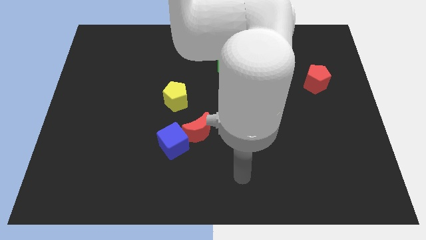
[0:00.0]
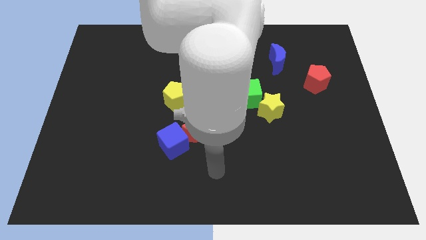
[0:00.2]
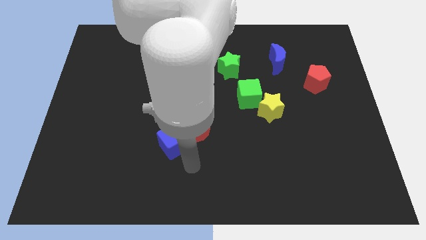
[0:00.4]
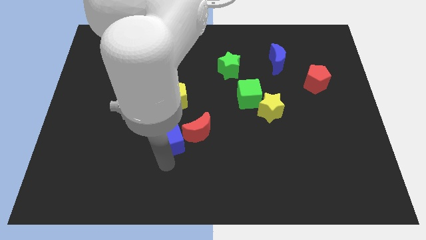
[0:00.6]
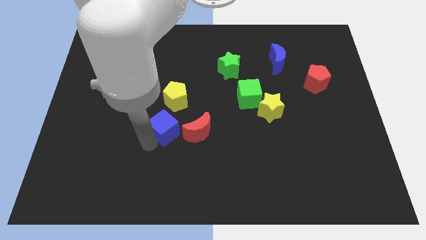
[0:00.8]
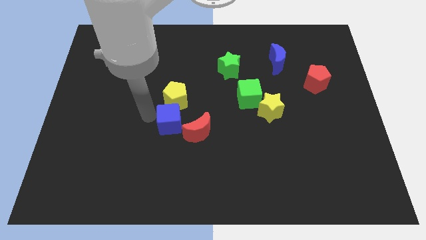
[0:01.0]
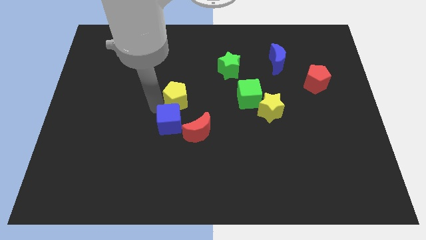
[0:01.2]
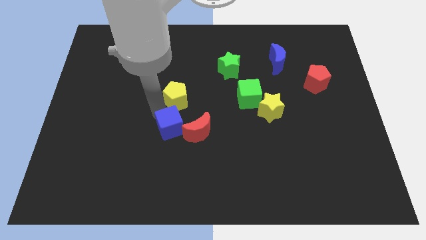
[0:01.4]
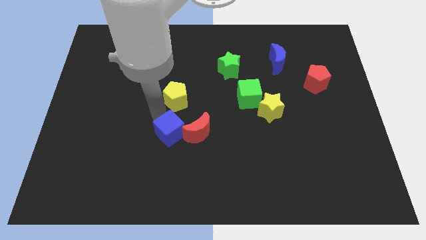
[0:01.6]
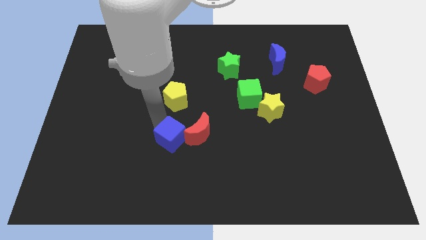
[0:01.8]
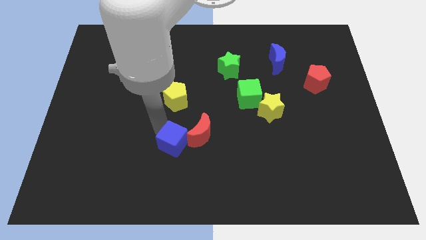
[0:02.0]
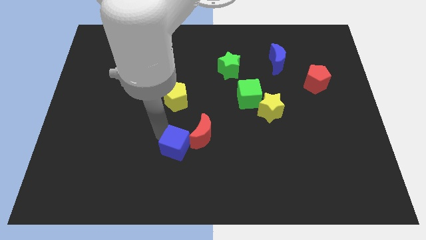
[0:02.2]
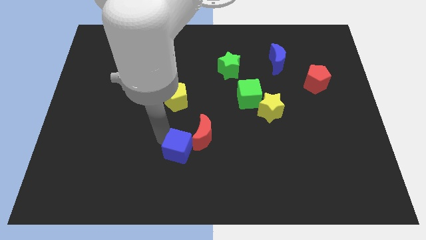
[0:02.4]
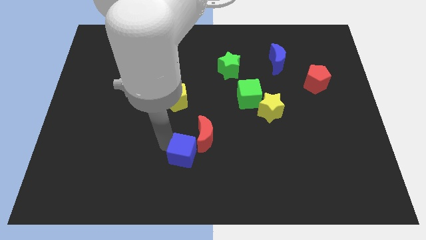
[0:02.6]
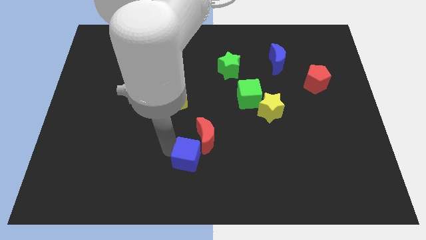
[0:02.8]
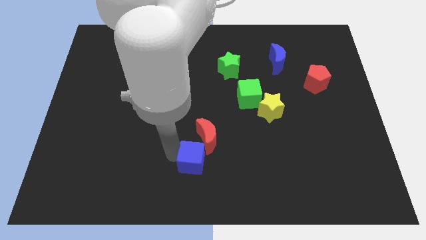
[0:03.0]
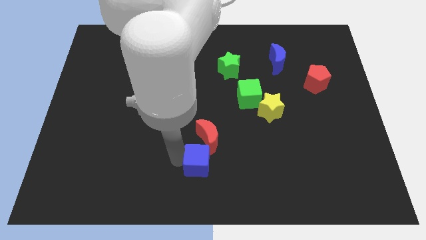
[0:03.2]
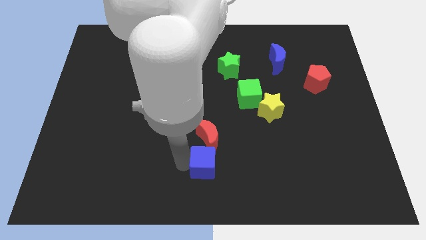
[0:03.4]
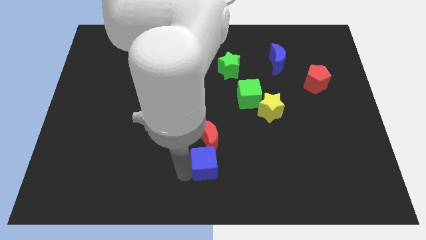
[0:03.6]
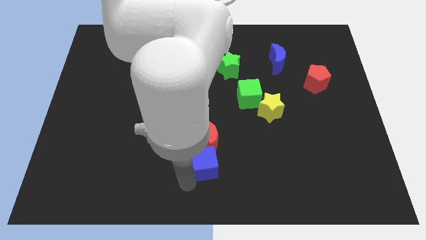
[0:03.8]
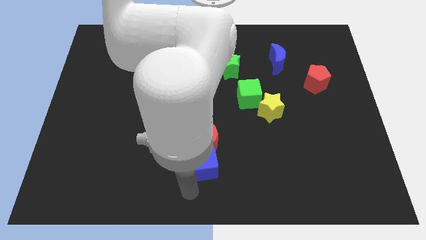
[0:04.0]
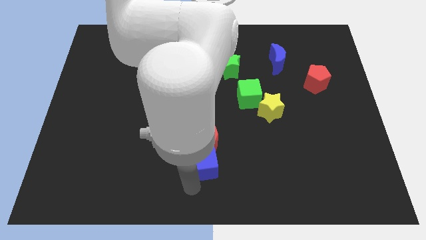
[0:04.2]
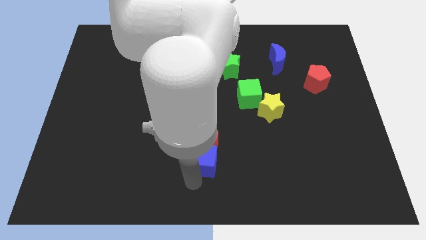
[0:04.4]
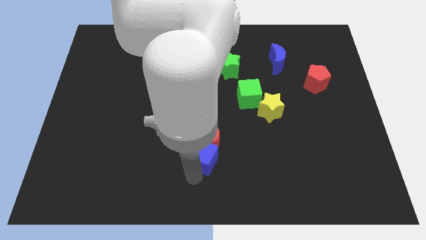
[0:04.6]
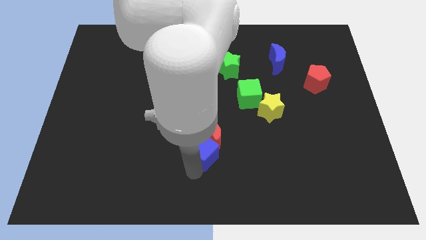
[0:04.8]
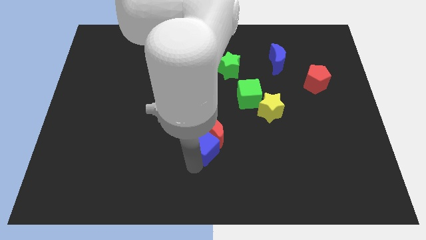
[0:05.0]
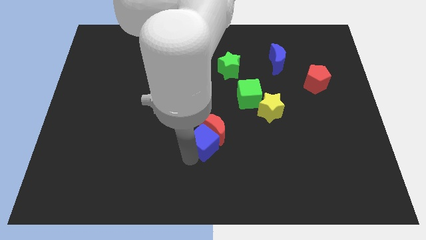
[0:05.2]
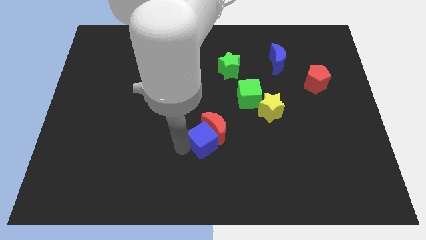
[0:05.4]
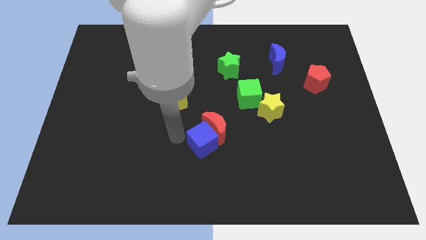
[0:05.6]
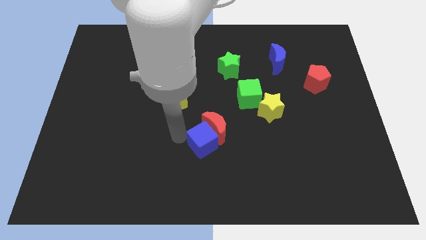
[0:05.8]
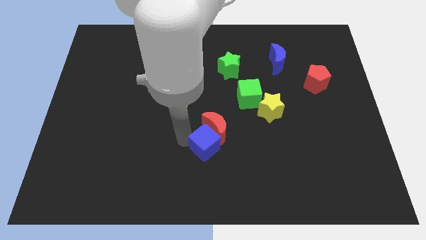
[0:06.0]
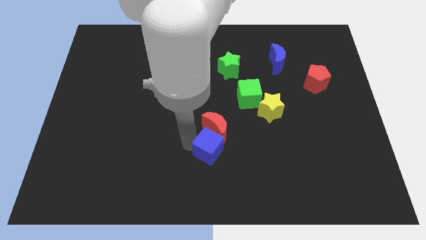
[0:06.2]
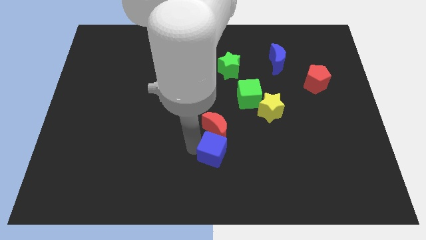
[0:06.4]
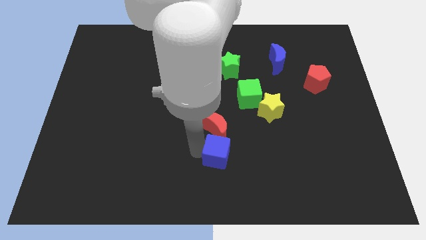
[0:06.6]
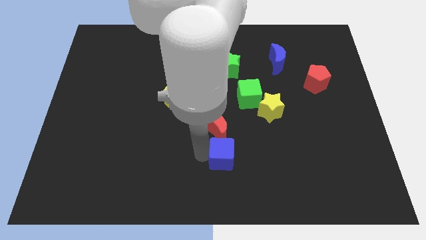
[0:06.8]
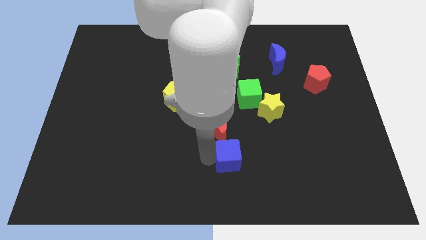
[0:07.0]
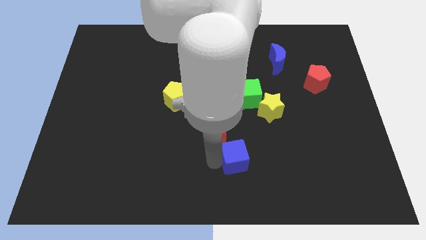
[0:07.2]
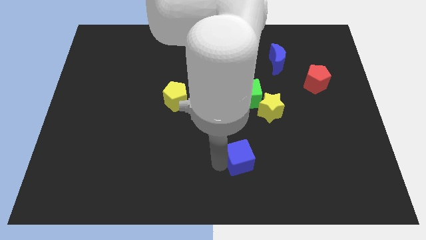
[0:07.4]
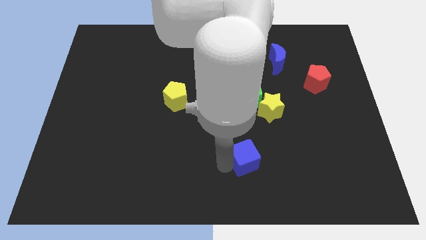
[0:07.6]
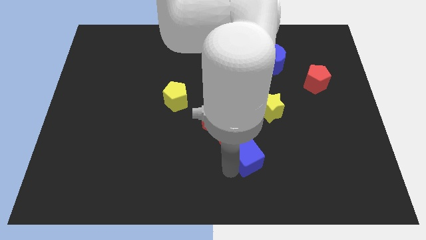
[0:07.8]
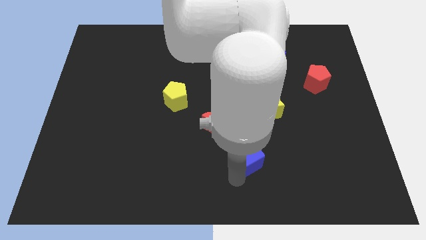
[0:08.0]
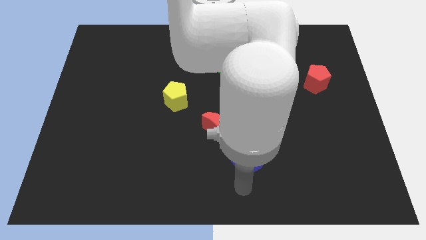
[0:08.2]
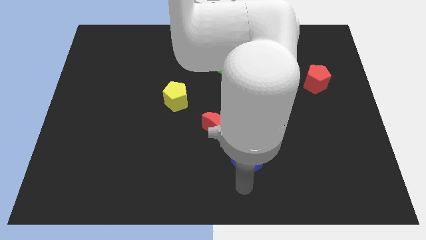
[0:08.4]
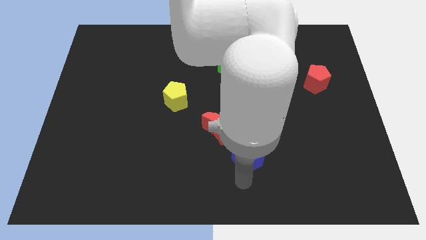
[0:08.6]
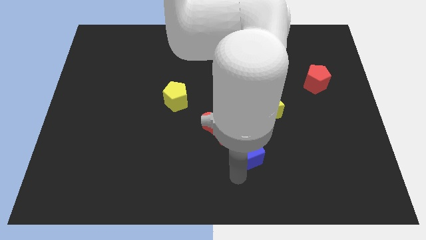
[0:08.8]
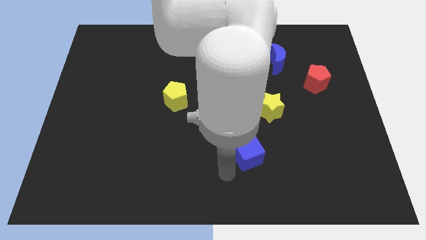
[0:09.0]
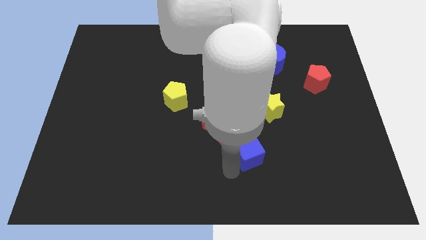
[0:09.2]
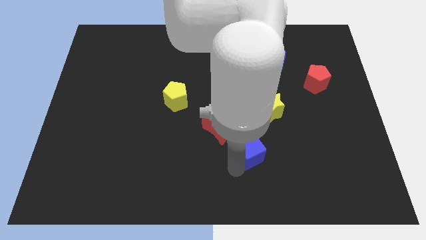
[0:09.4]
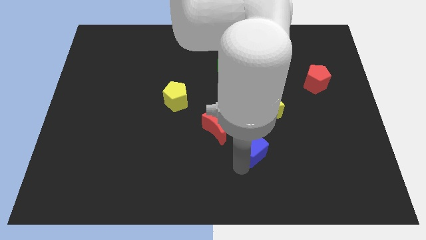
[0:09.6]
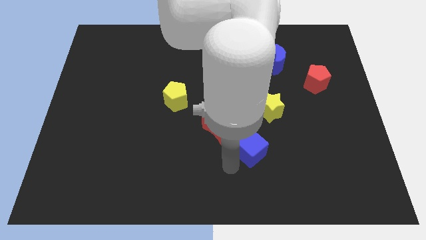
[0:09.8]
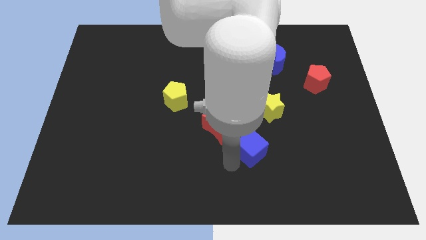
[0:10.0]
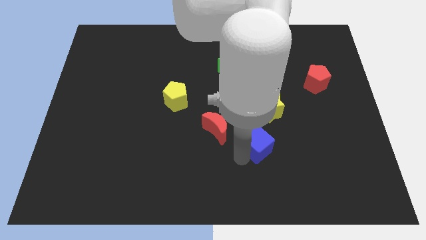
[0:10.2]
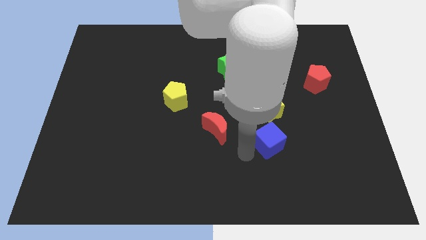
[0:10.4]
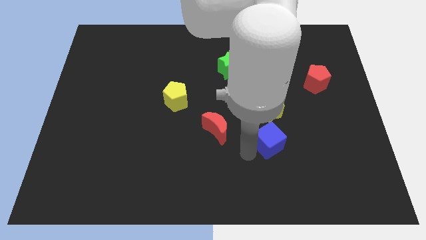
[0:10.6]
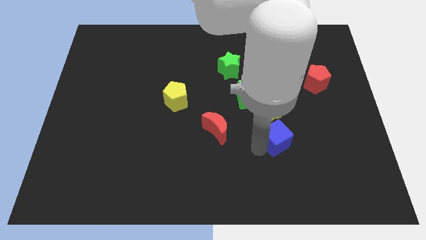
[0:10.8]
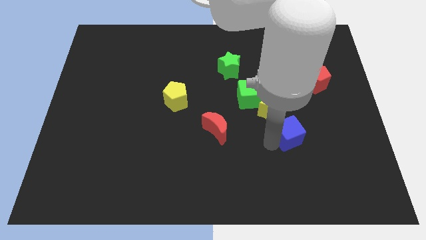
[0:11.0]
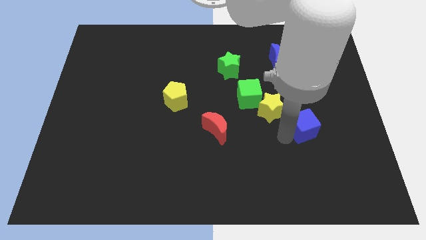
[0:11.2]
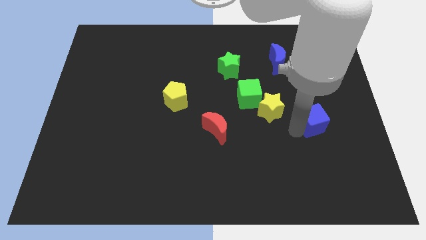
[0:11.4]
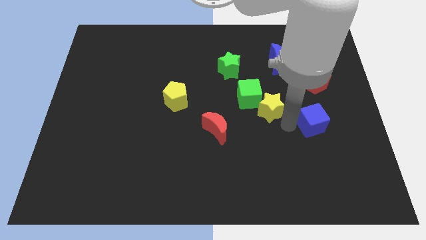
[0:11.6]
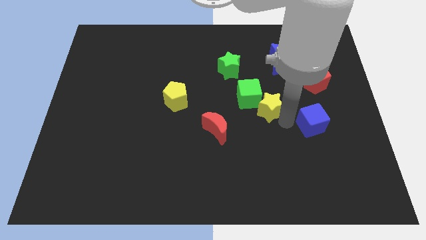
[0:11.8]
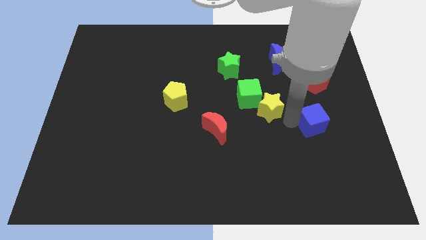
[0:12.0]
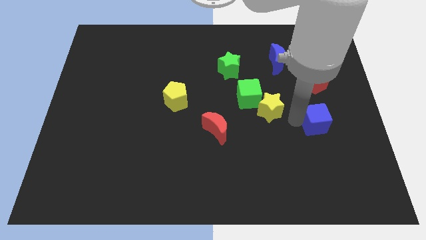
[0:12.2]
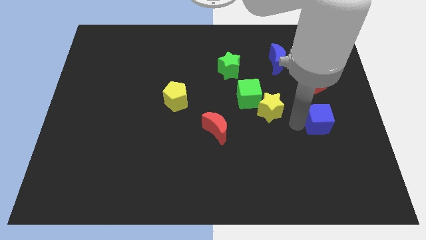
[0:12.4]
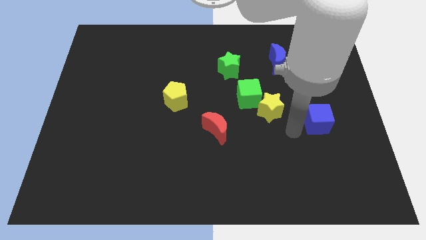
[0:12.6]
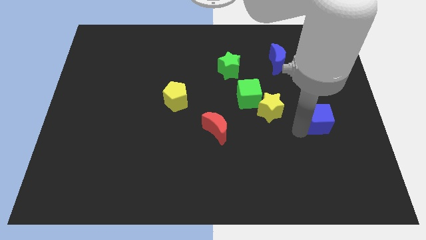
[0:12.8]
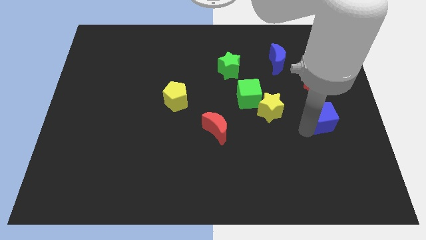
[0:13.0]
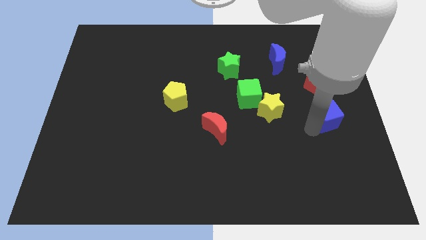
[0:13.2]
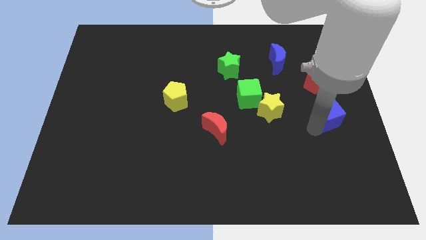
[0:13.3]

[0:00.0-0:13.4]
move the blue cube to the right side
